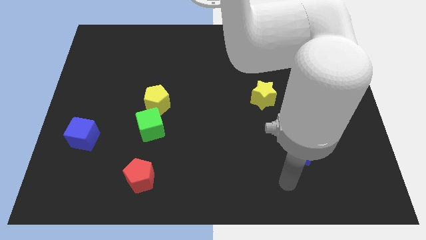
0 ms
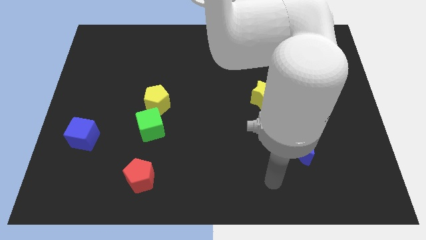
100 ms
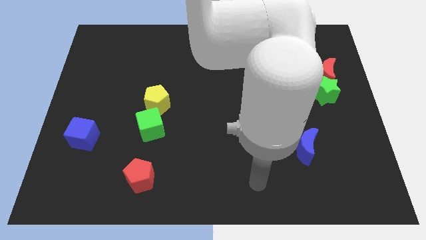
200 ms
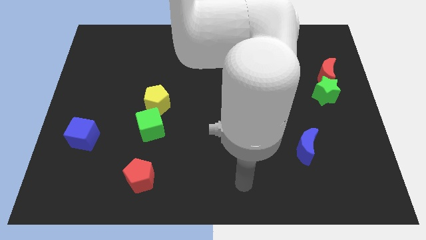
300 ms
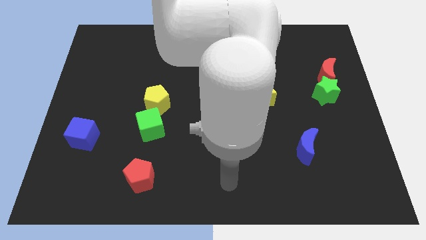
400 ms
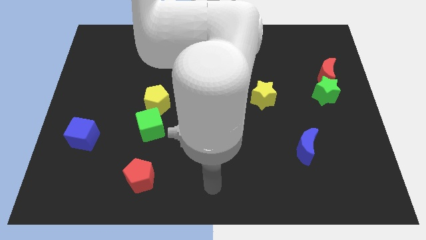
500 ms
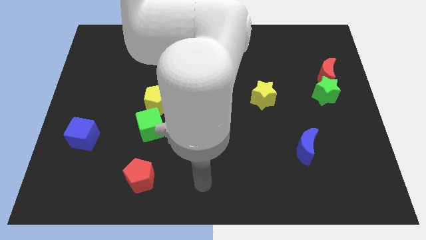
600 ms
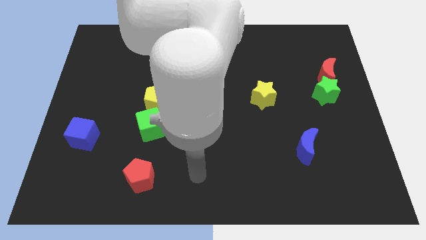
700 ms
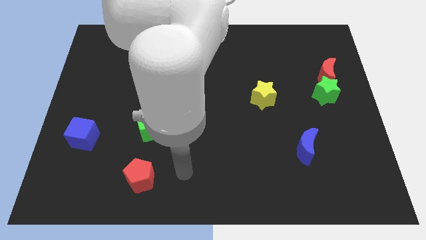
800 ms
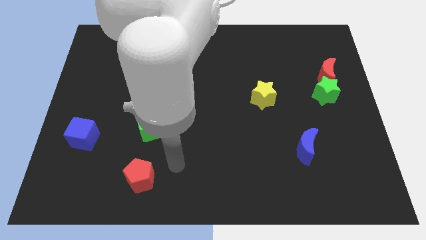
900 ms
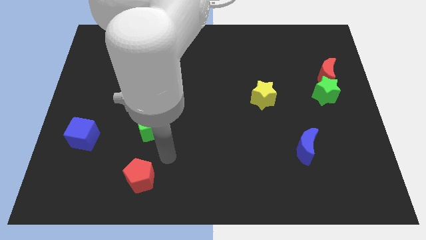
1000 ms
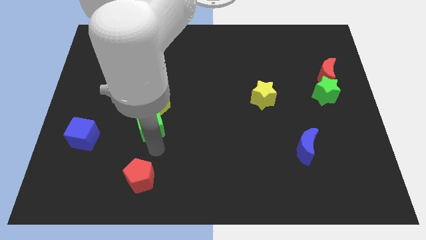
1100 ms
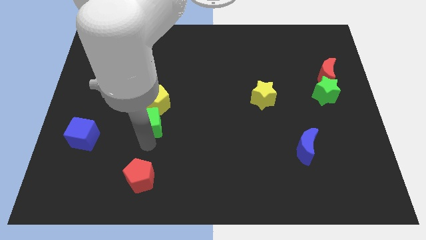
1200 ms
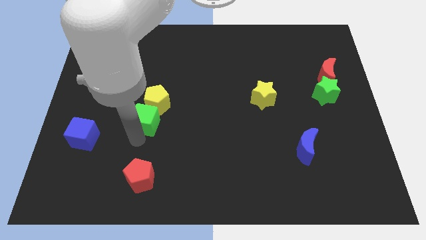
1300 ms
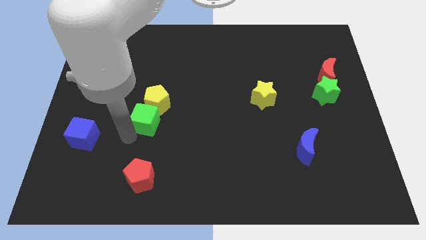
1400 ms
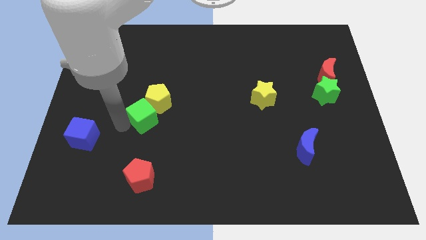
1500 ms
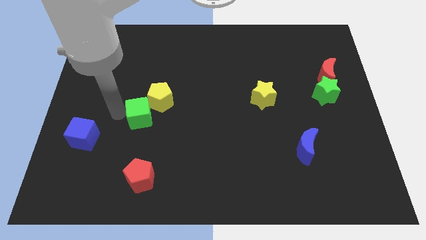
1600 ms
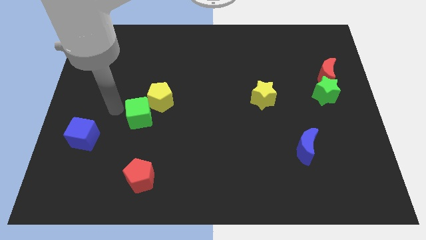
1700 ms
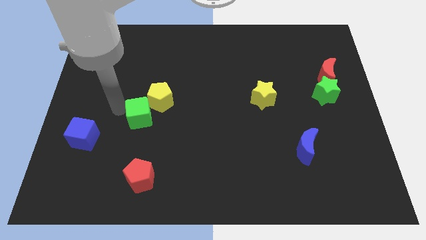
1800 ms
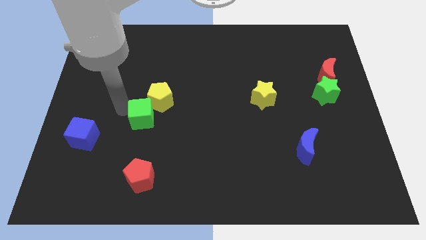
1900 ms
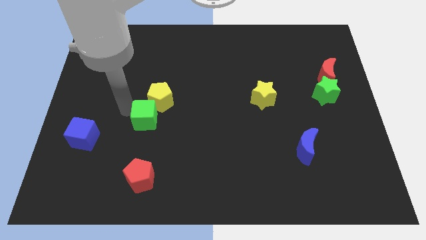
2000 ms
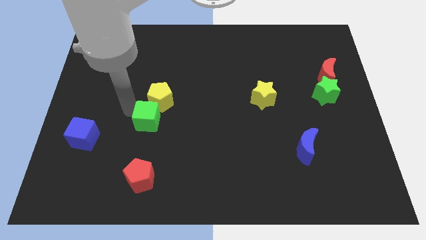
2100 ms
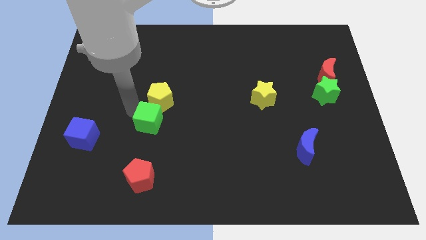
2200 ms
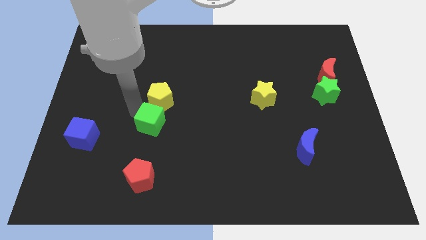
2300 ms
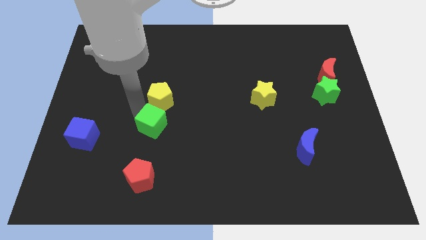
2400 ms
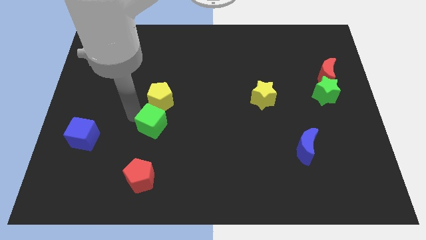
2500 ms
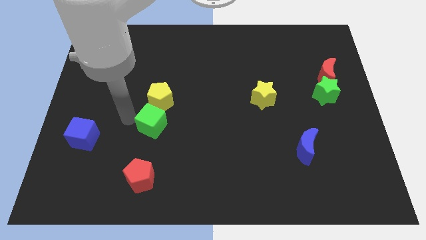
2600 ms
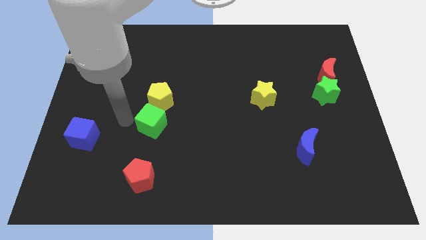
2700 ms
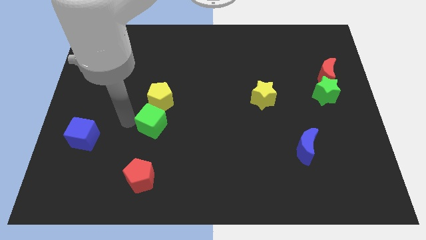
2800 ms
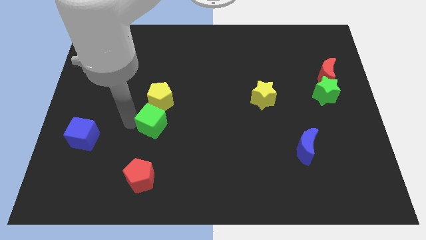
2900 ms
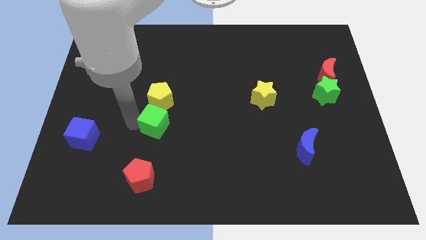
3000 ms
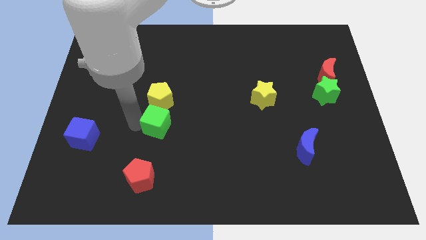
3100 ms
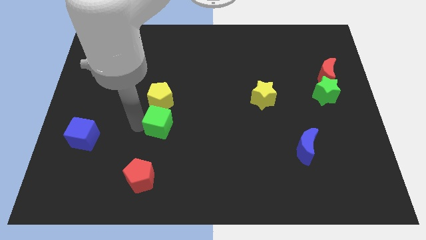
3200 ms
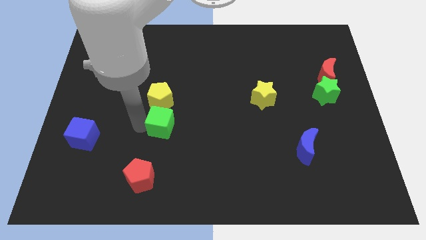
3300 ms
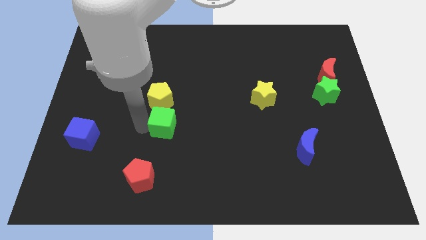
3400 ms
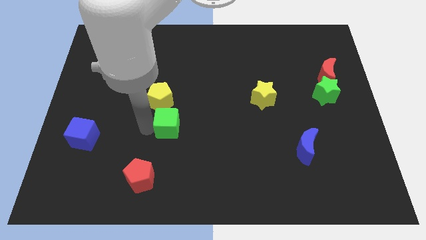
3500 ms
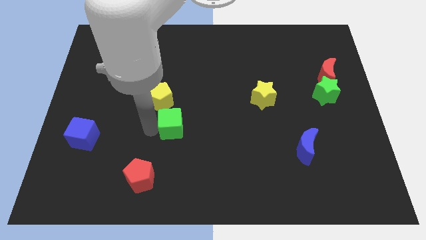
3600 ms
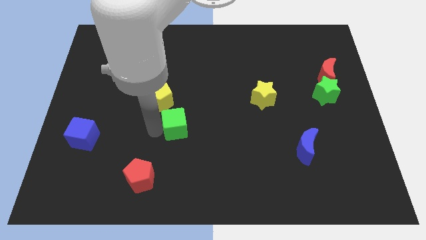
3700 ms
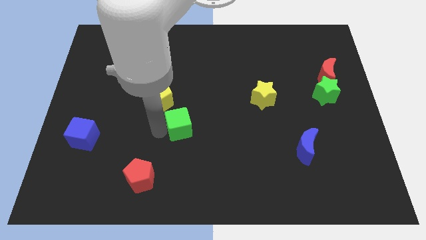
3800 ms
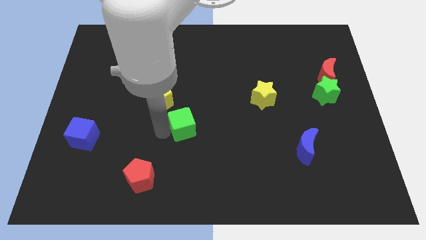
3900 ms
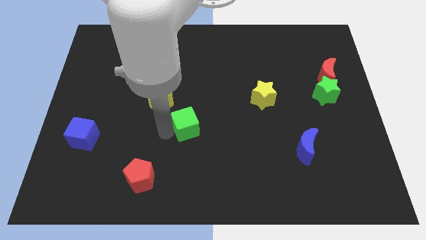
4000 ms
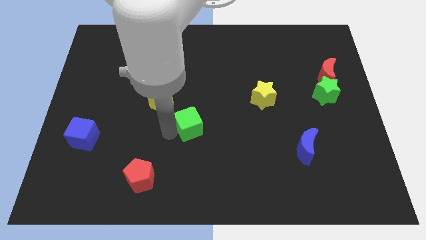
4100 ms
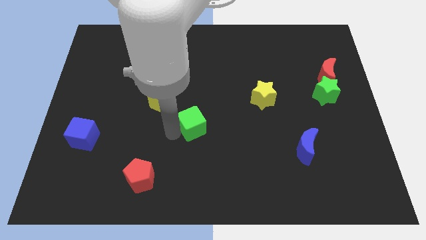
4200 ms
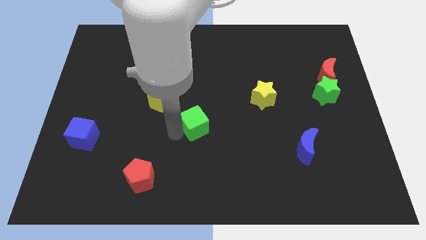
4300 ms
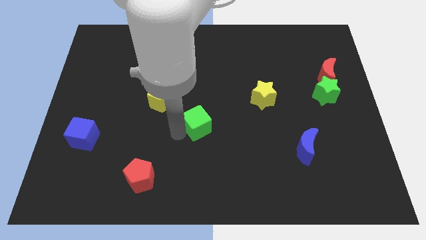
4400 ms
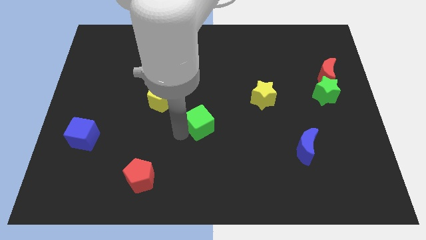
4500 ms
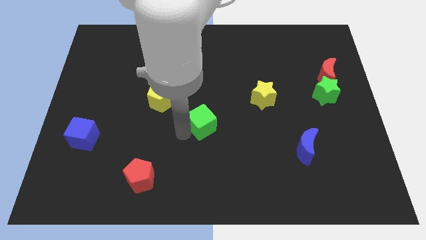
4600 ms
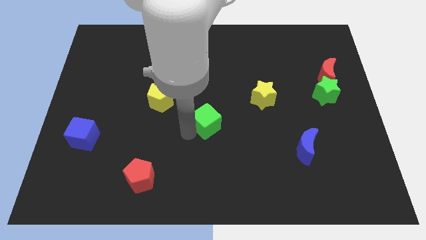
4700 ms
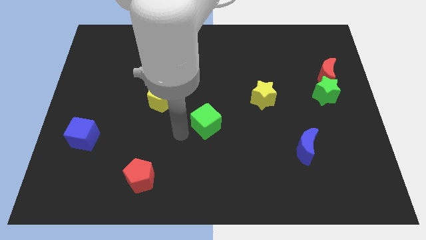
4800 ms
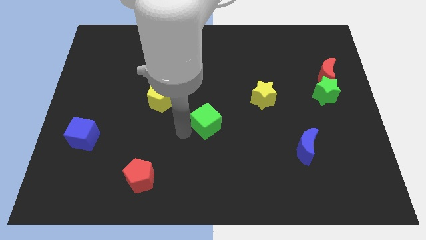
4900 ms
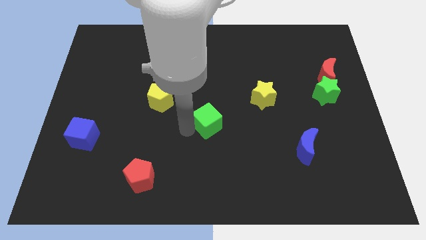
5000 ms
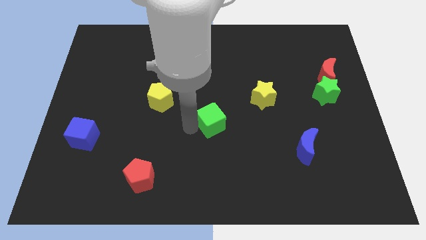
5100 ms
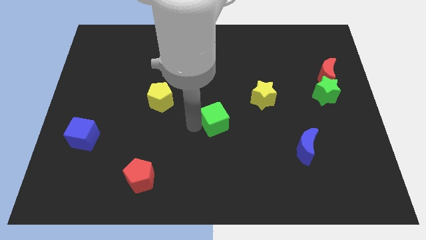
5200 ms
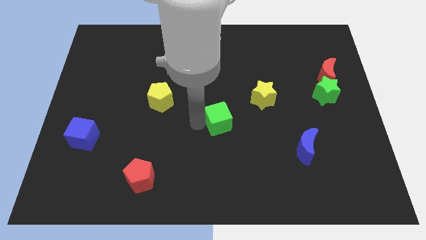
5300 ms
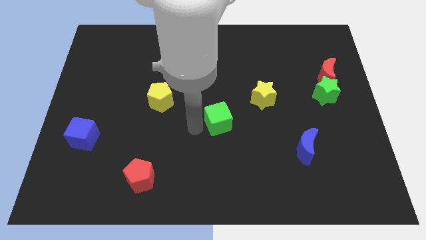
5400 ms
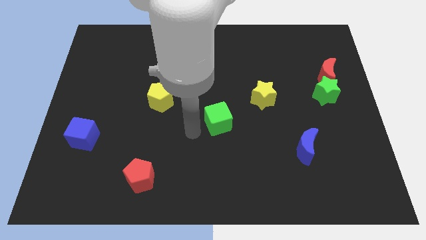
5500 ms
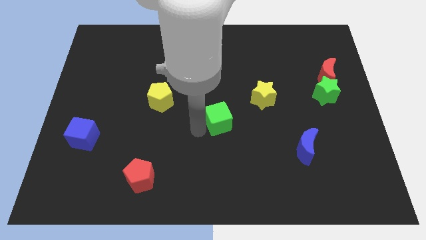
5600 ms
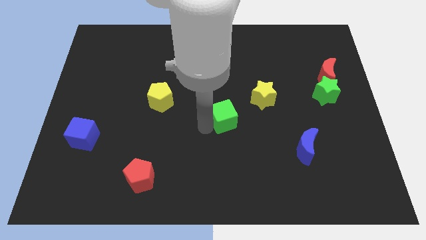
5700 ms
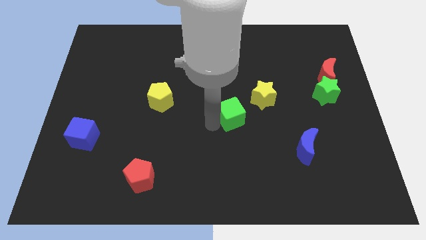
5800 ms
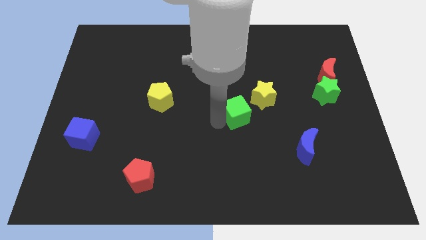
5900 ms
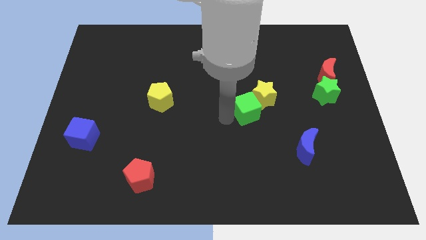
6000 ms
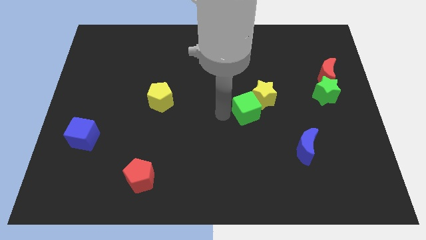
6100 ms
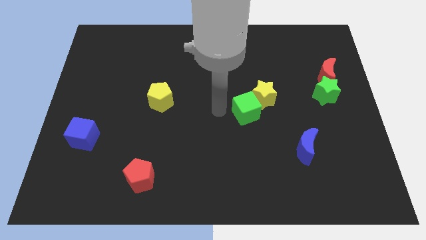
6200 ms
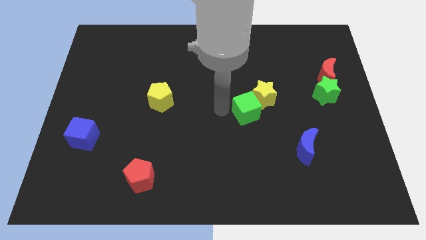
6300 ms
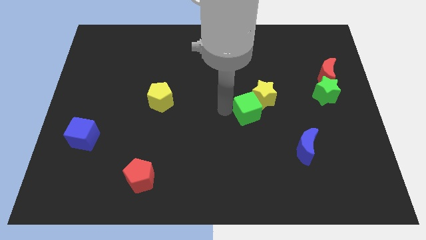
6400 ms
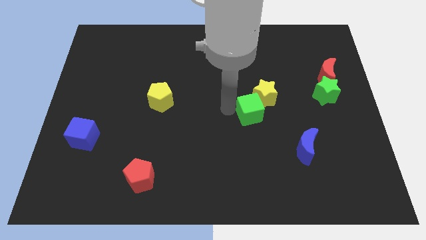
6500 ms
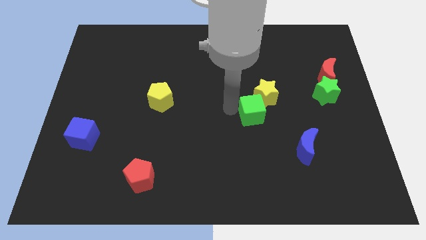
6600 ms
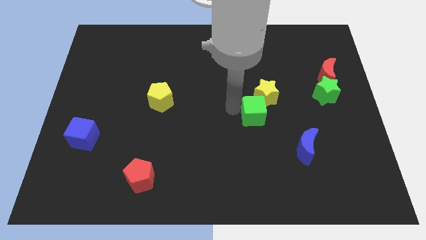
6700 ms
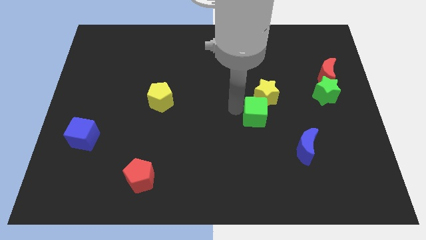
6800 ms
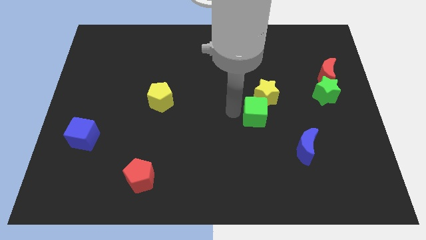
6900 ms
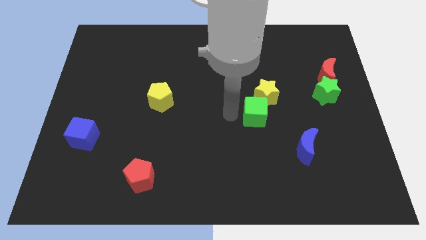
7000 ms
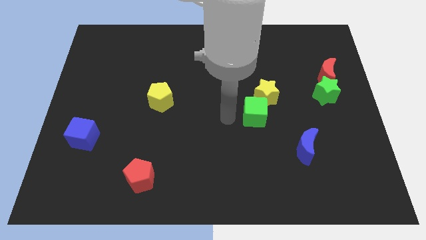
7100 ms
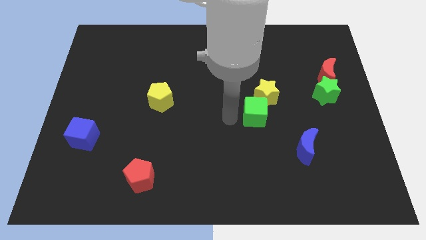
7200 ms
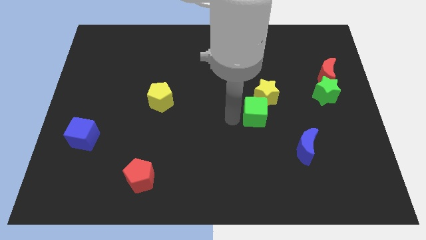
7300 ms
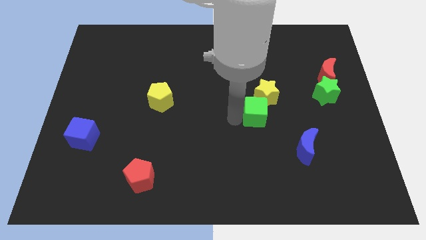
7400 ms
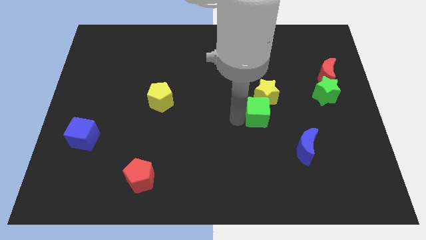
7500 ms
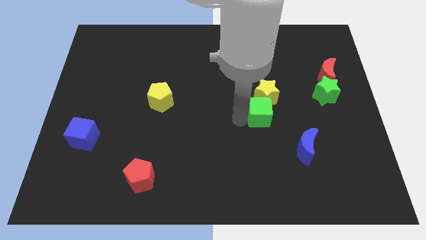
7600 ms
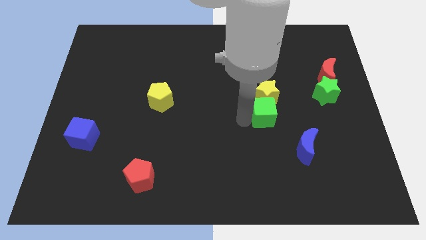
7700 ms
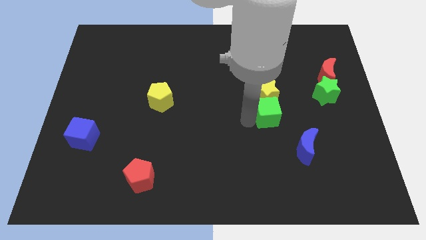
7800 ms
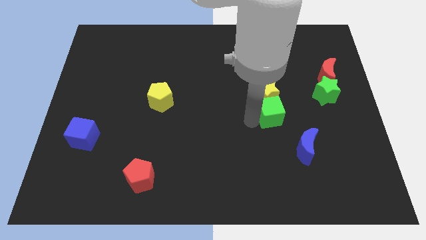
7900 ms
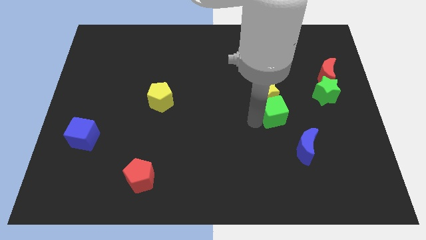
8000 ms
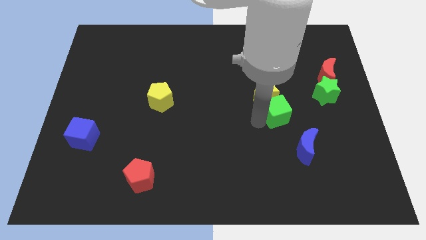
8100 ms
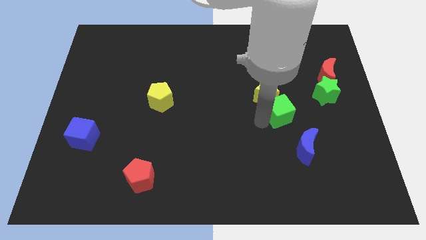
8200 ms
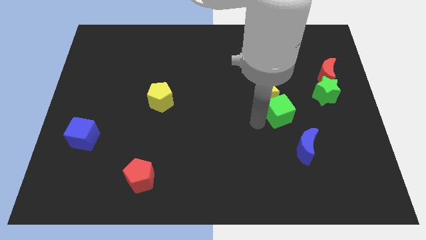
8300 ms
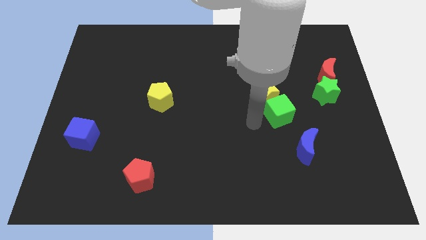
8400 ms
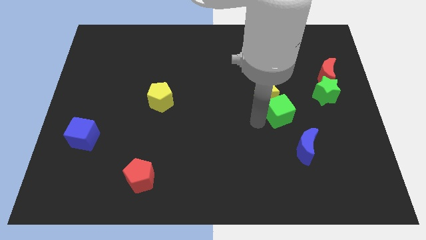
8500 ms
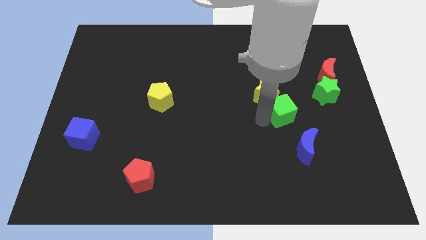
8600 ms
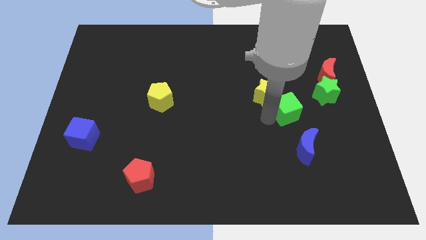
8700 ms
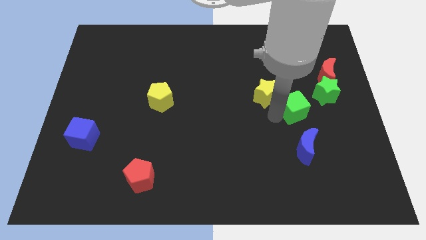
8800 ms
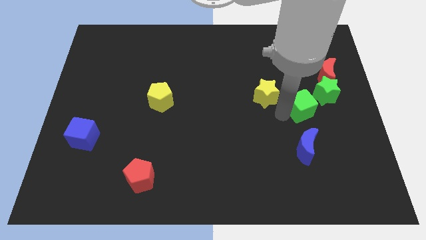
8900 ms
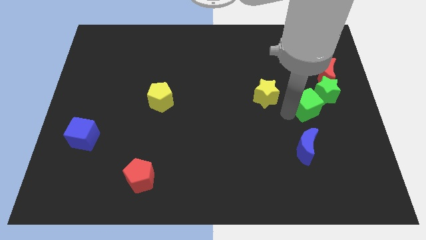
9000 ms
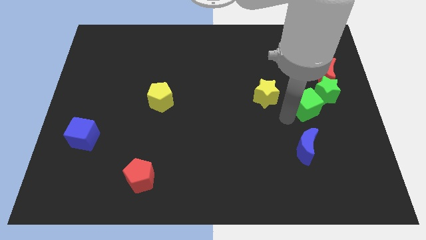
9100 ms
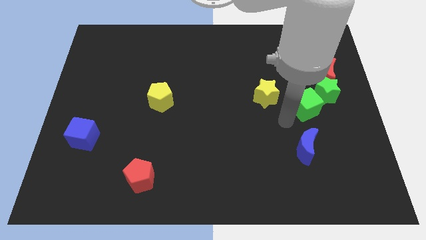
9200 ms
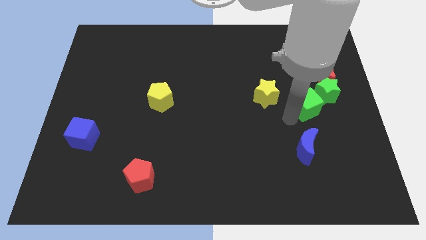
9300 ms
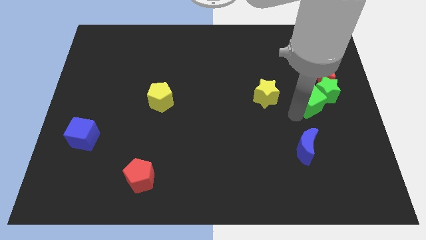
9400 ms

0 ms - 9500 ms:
push the green cube to the green star
